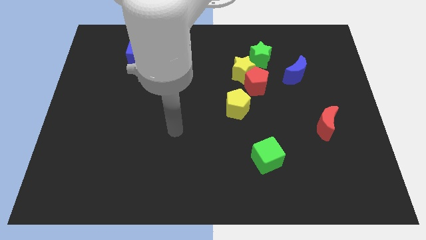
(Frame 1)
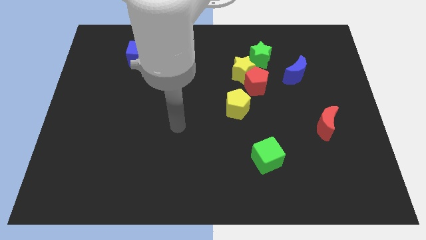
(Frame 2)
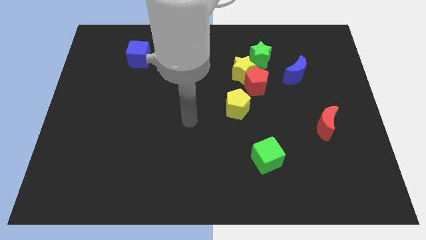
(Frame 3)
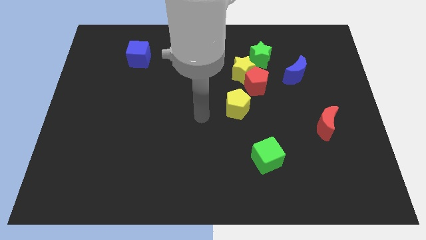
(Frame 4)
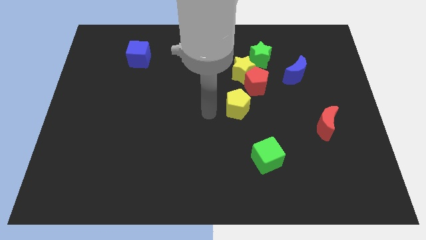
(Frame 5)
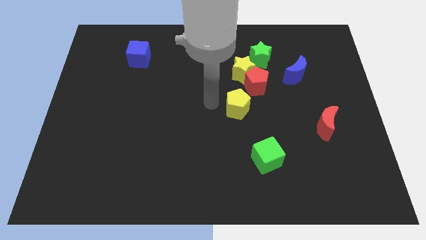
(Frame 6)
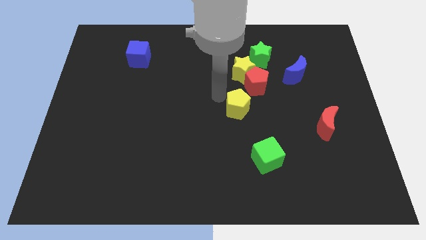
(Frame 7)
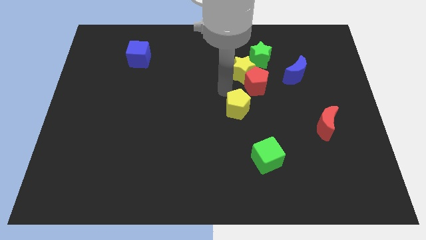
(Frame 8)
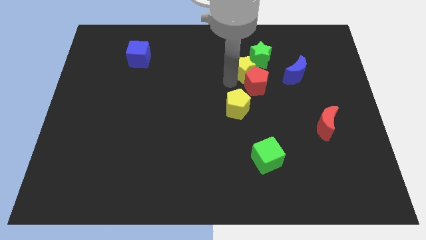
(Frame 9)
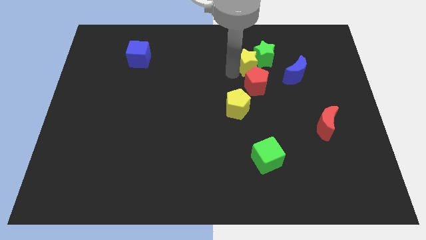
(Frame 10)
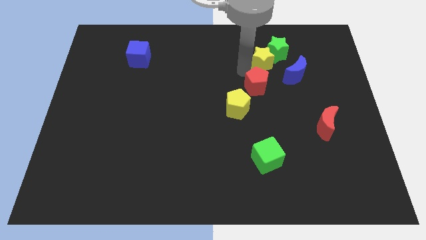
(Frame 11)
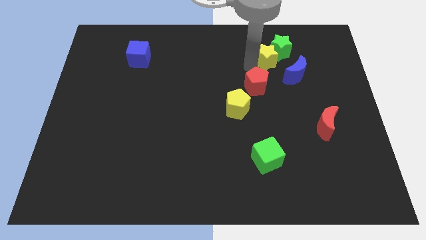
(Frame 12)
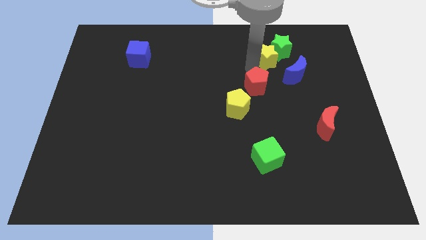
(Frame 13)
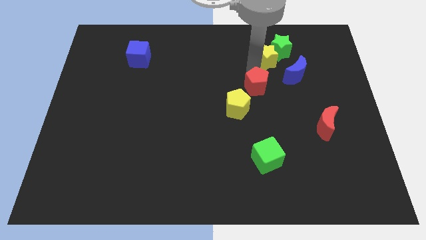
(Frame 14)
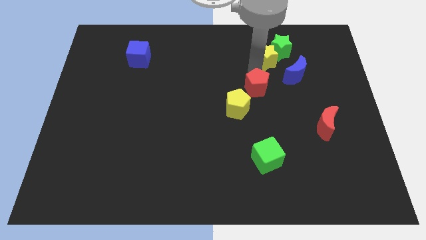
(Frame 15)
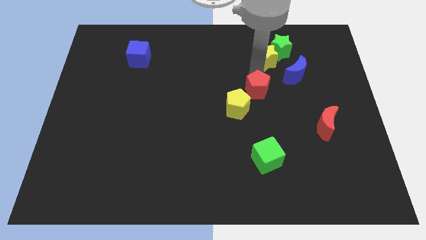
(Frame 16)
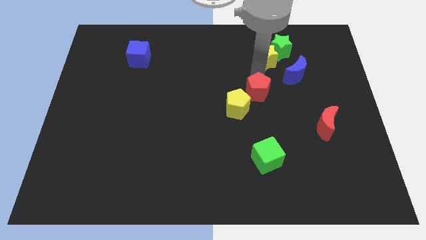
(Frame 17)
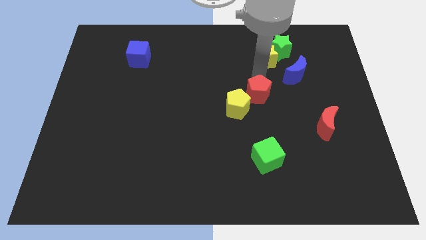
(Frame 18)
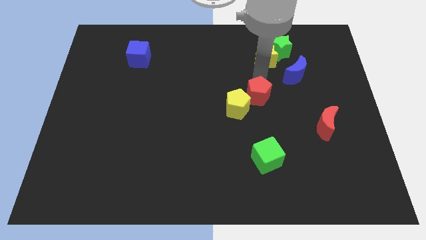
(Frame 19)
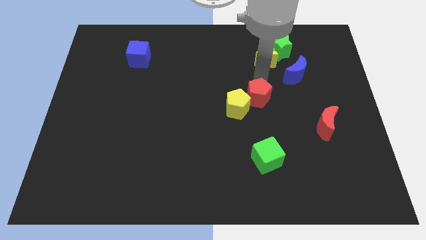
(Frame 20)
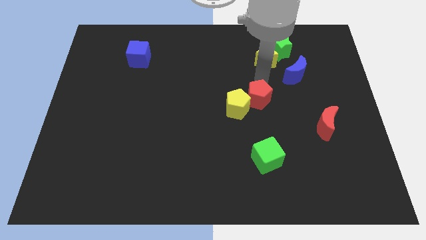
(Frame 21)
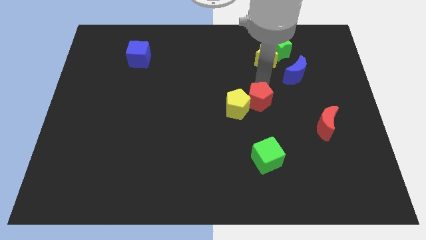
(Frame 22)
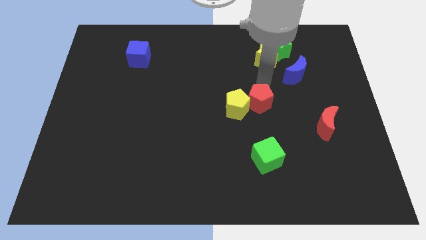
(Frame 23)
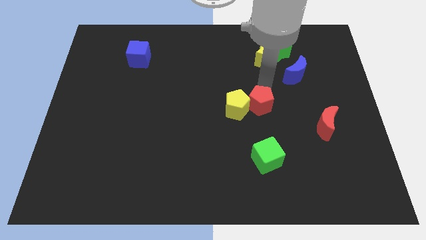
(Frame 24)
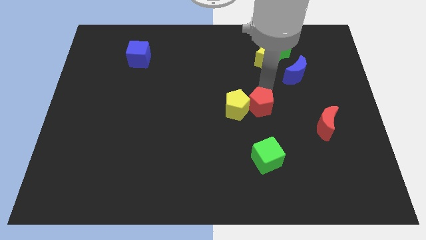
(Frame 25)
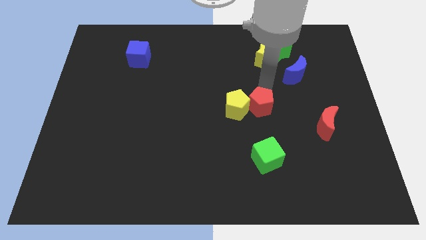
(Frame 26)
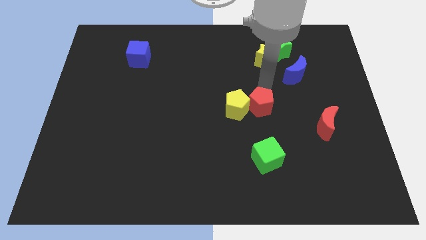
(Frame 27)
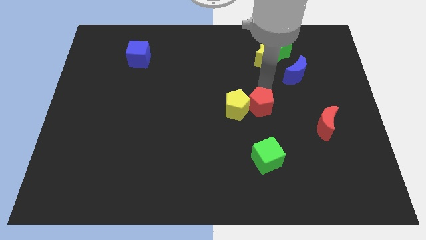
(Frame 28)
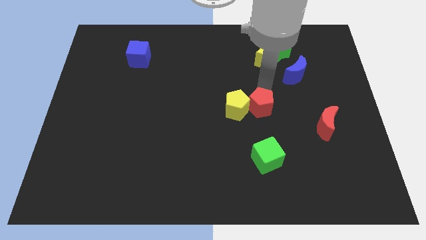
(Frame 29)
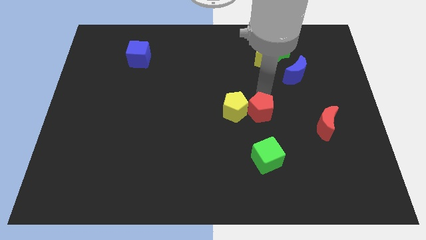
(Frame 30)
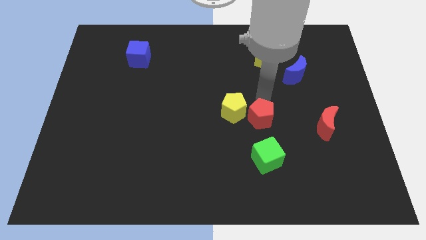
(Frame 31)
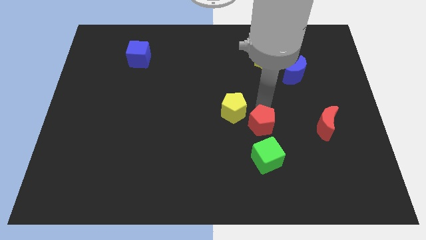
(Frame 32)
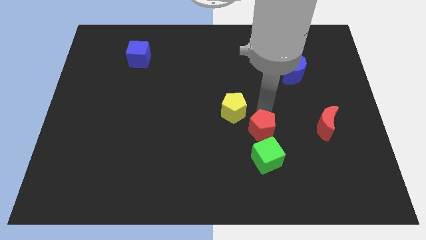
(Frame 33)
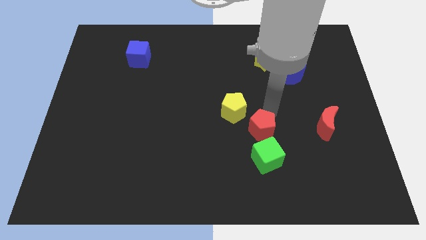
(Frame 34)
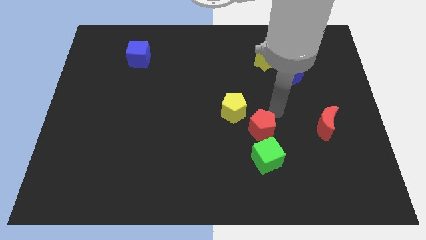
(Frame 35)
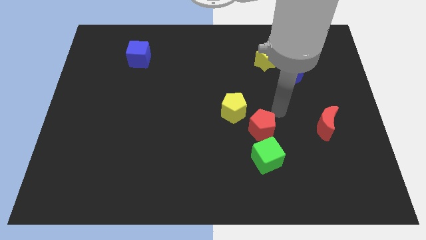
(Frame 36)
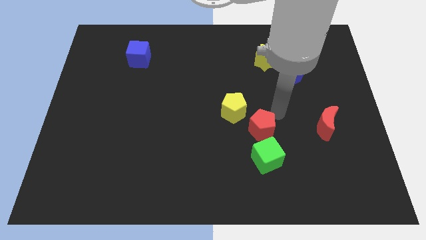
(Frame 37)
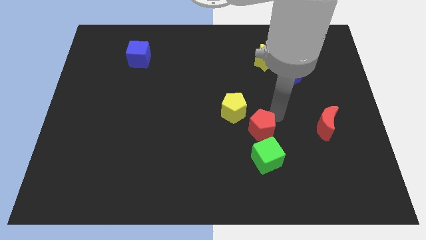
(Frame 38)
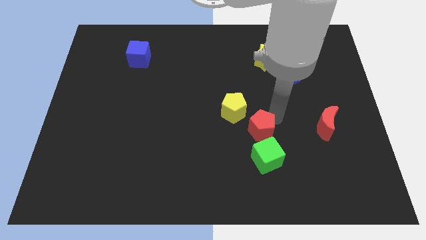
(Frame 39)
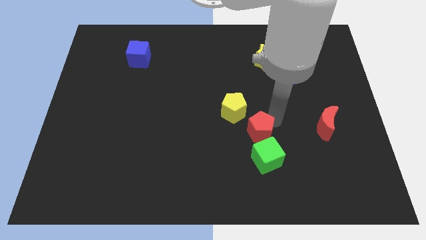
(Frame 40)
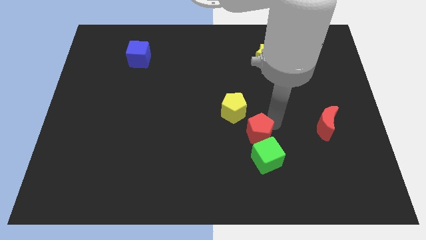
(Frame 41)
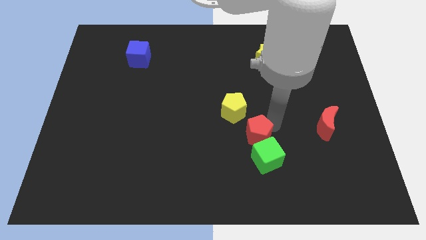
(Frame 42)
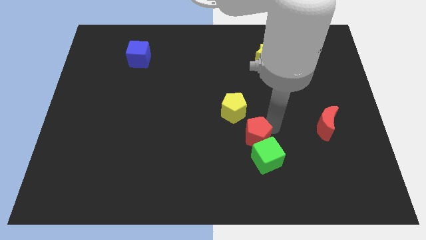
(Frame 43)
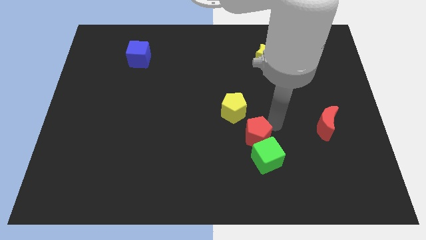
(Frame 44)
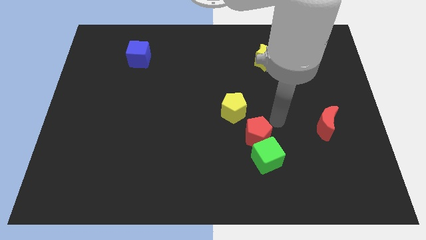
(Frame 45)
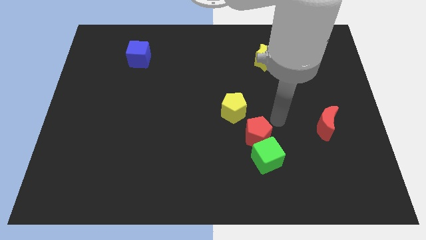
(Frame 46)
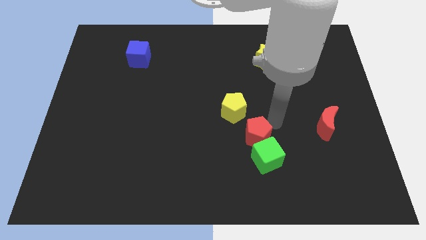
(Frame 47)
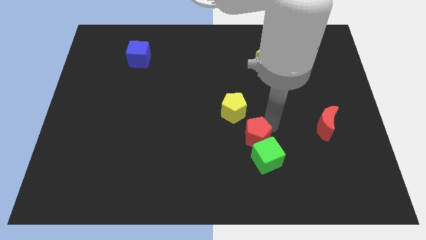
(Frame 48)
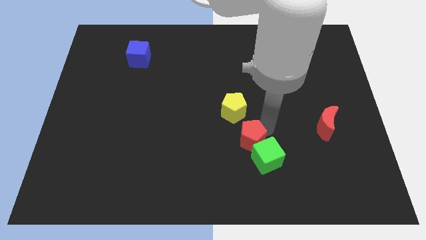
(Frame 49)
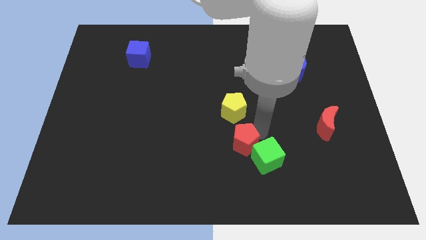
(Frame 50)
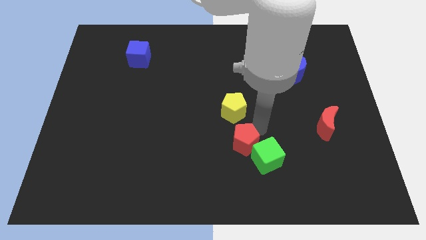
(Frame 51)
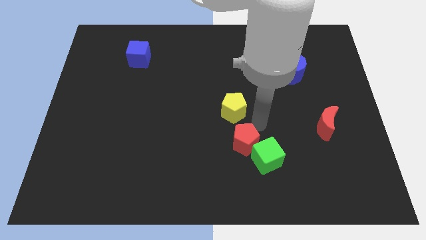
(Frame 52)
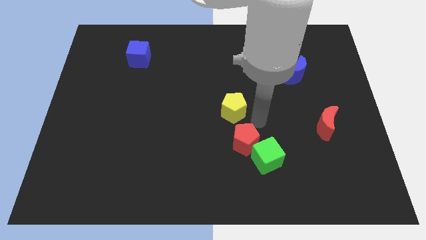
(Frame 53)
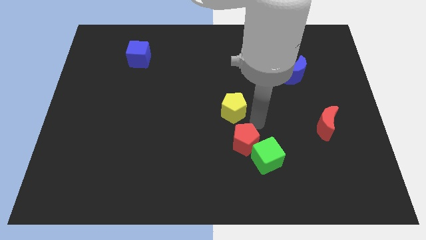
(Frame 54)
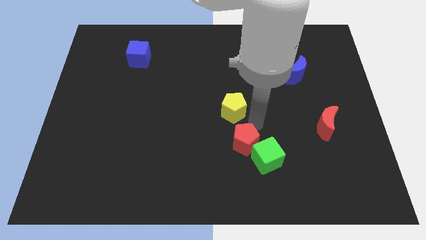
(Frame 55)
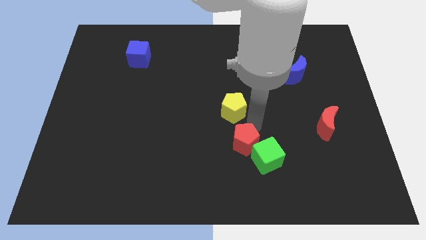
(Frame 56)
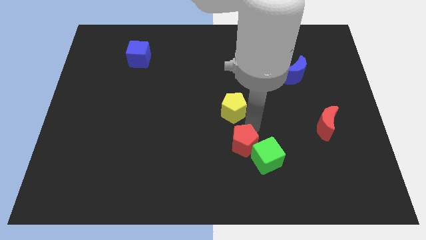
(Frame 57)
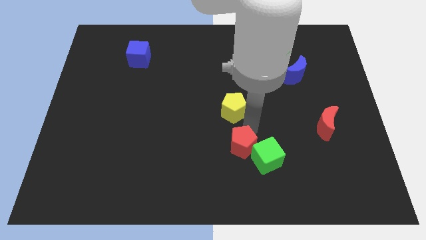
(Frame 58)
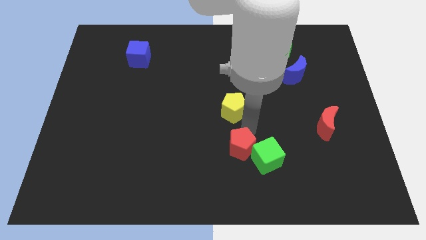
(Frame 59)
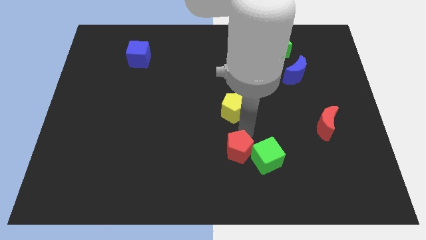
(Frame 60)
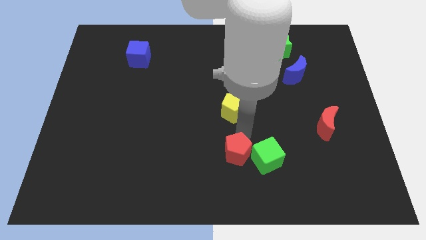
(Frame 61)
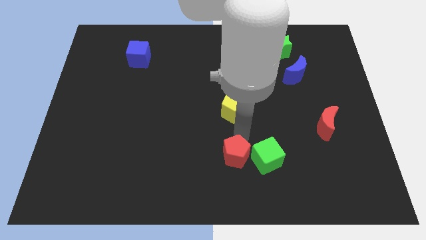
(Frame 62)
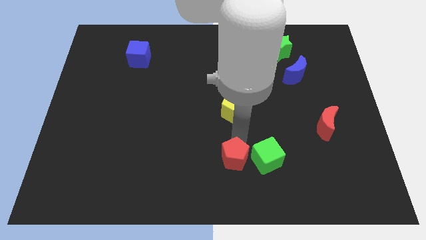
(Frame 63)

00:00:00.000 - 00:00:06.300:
move the red pentagon to the bottom side
